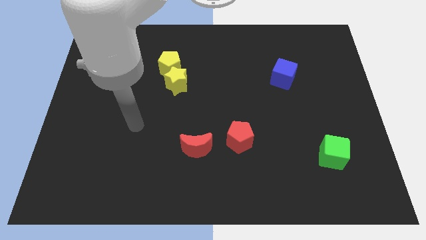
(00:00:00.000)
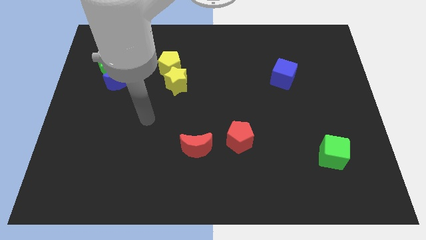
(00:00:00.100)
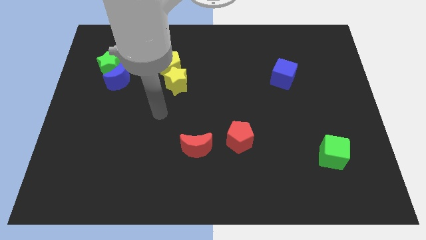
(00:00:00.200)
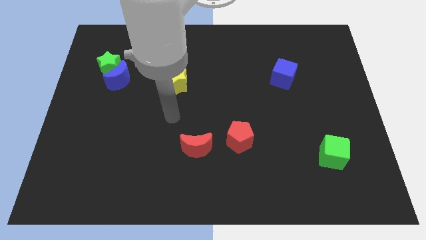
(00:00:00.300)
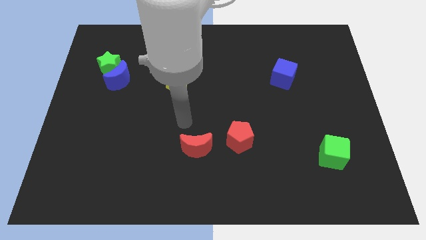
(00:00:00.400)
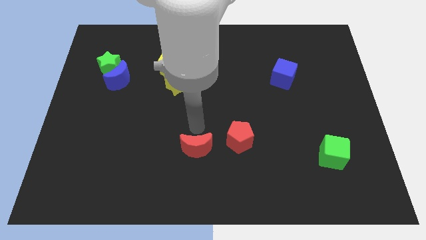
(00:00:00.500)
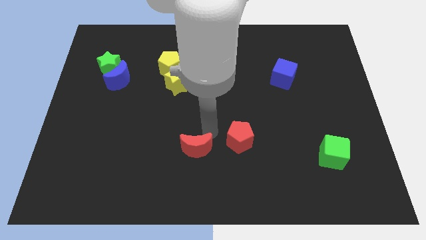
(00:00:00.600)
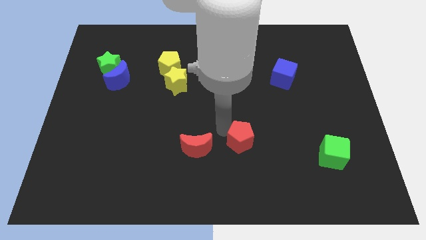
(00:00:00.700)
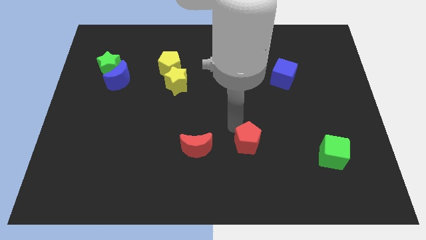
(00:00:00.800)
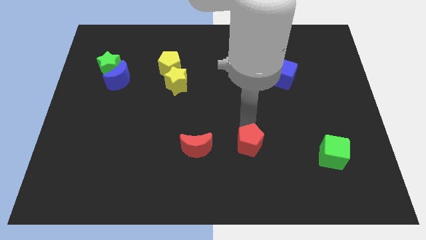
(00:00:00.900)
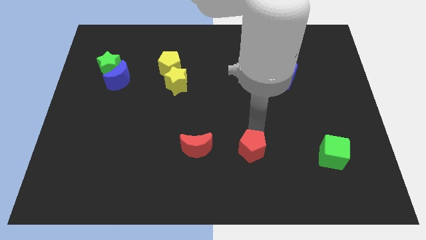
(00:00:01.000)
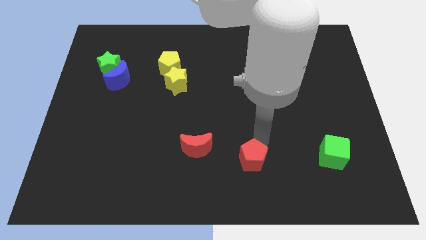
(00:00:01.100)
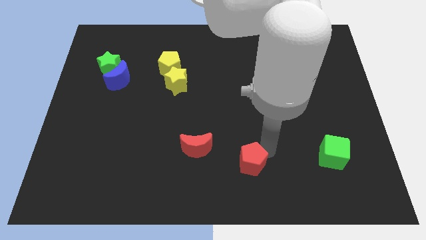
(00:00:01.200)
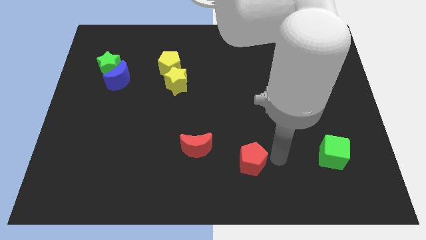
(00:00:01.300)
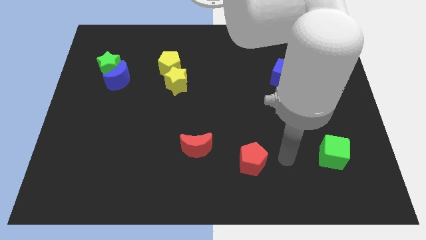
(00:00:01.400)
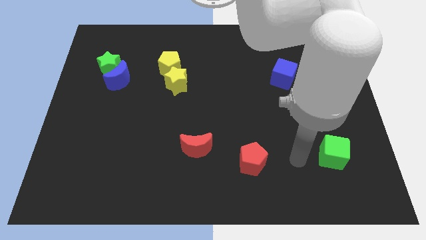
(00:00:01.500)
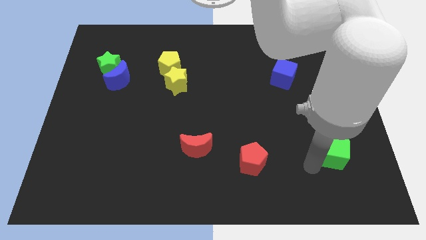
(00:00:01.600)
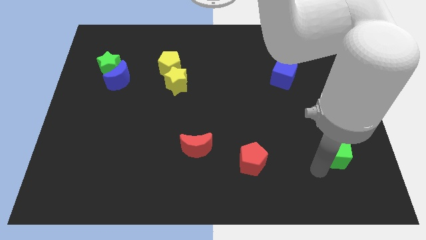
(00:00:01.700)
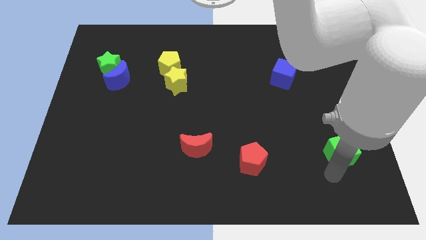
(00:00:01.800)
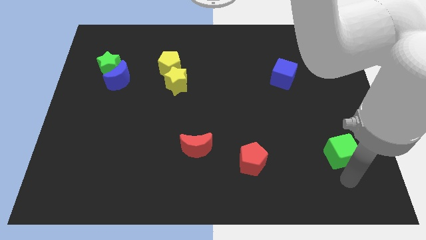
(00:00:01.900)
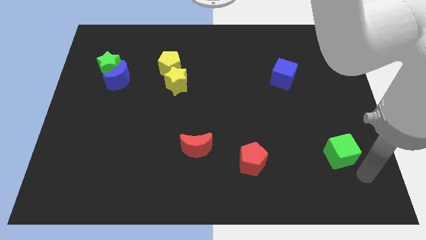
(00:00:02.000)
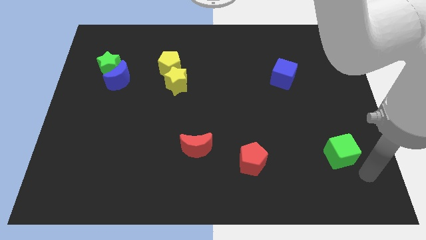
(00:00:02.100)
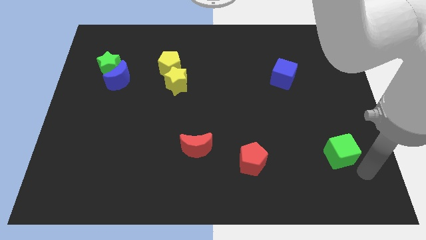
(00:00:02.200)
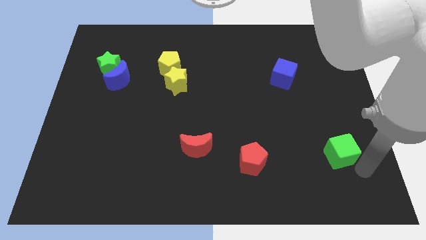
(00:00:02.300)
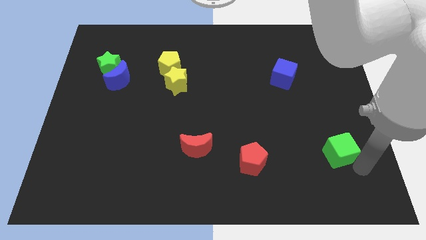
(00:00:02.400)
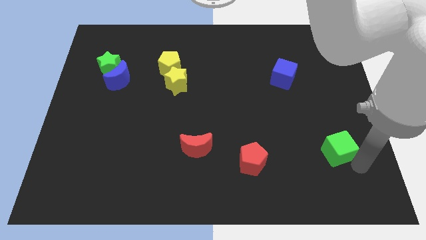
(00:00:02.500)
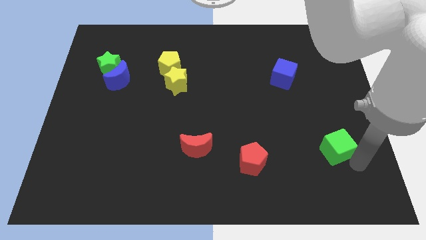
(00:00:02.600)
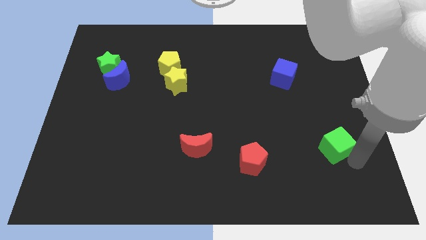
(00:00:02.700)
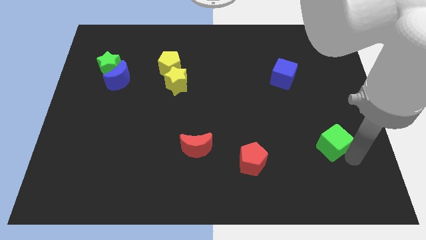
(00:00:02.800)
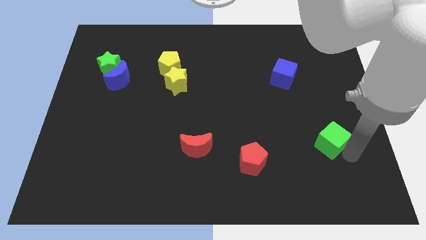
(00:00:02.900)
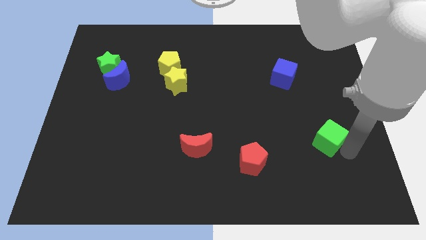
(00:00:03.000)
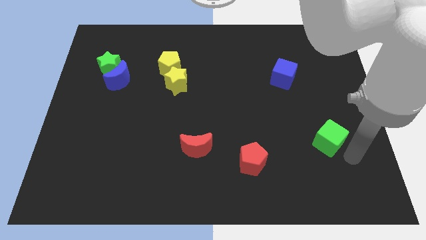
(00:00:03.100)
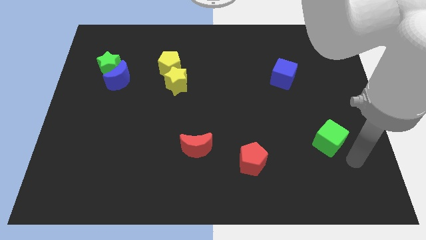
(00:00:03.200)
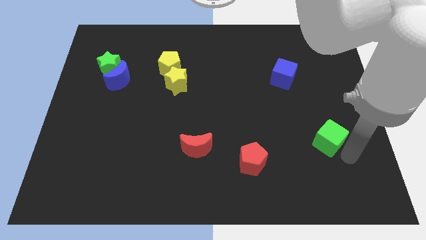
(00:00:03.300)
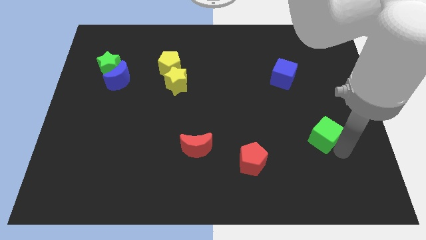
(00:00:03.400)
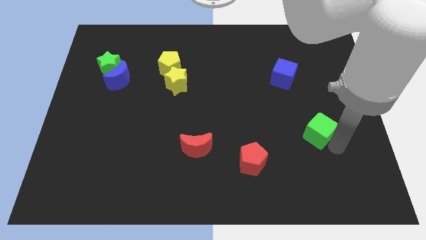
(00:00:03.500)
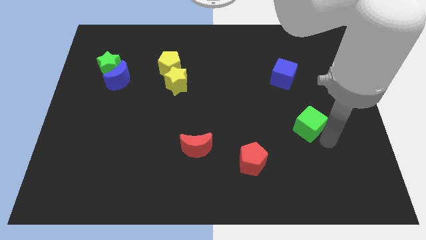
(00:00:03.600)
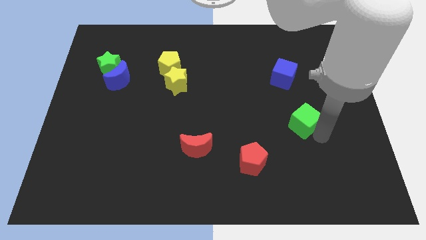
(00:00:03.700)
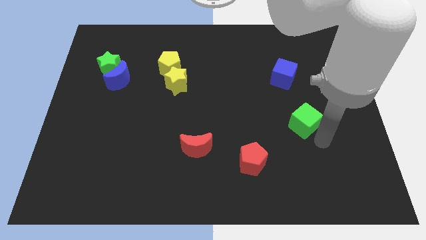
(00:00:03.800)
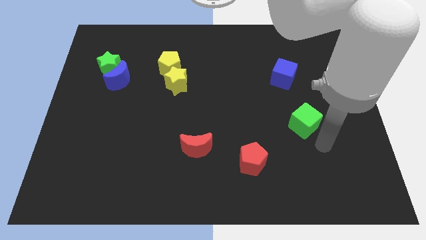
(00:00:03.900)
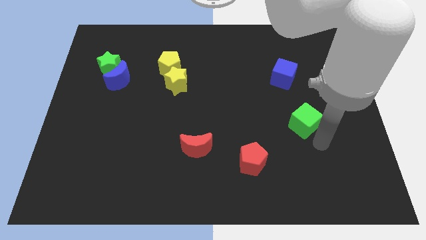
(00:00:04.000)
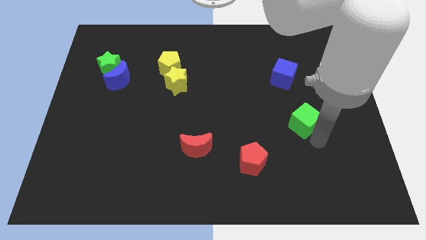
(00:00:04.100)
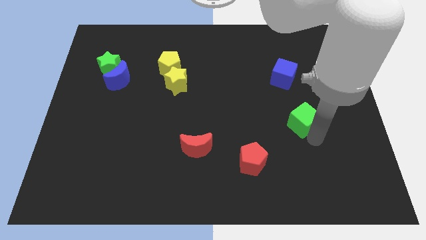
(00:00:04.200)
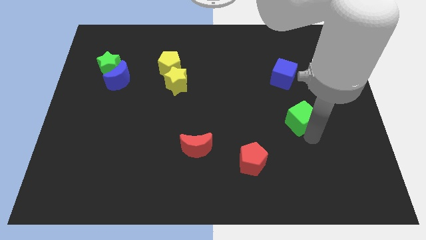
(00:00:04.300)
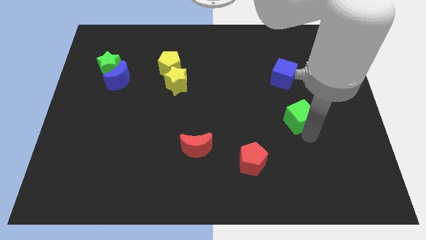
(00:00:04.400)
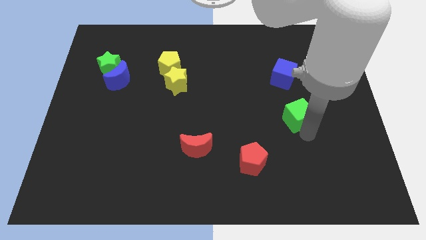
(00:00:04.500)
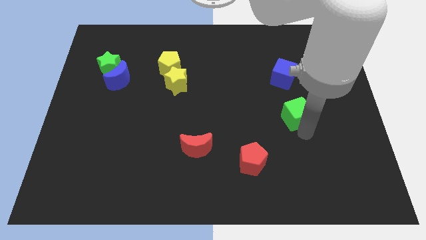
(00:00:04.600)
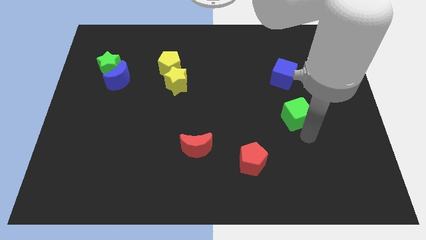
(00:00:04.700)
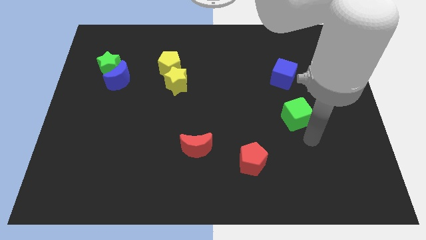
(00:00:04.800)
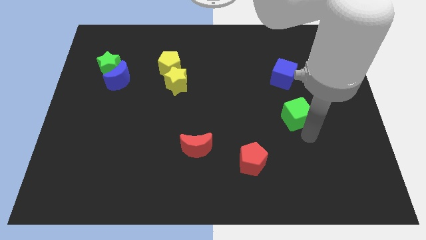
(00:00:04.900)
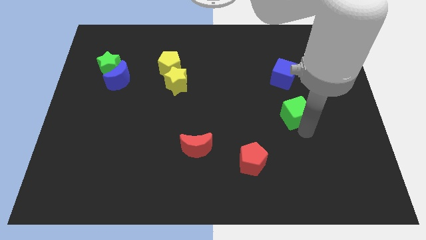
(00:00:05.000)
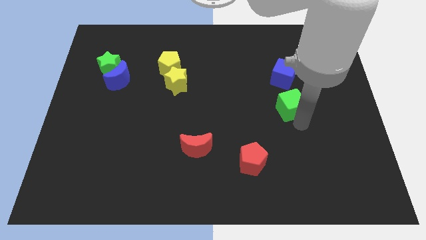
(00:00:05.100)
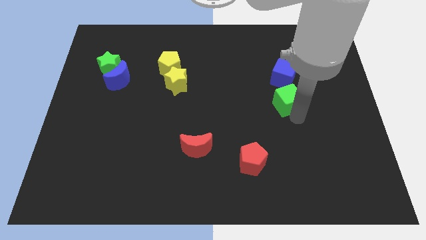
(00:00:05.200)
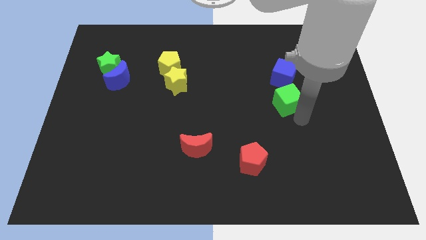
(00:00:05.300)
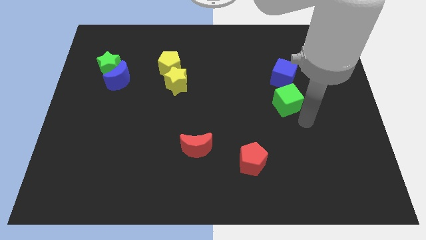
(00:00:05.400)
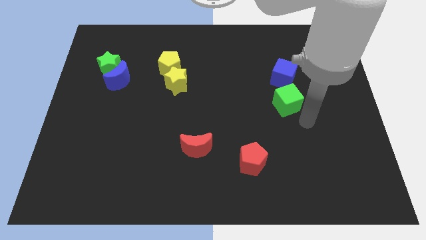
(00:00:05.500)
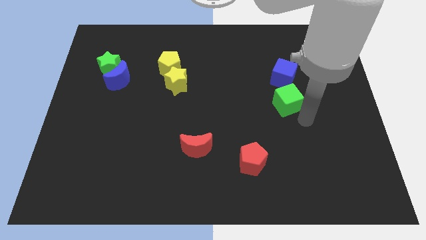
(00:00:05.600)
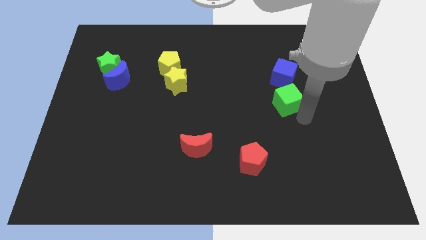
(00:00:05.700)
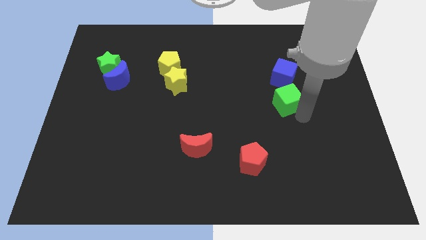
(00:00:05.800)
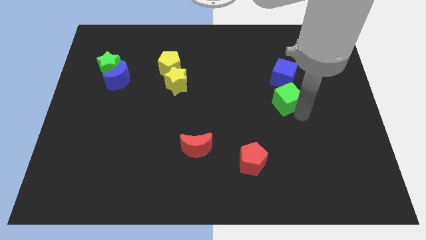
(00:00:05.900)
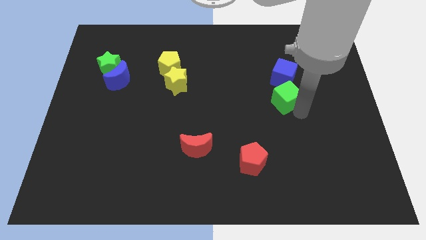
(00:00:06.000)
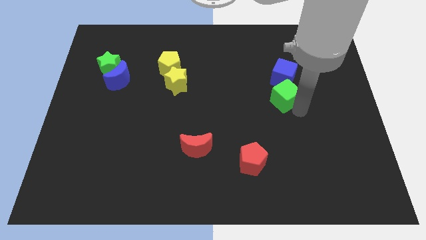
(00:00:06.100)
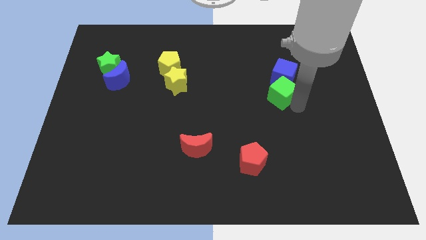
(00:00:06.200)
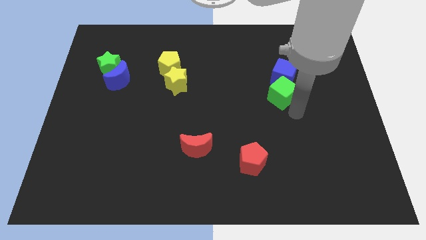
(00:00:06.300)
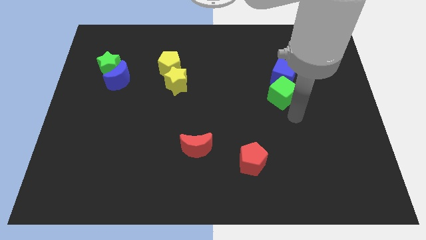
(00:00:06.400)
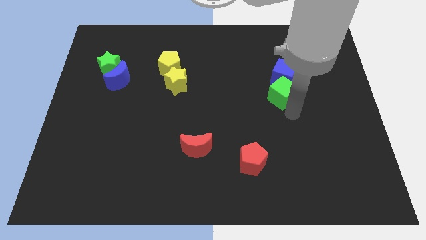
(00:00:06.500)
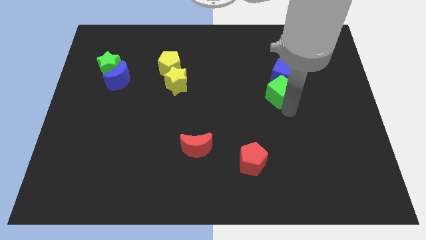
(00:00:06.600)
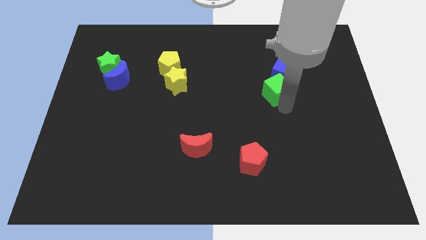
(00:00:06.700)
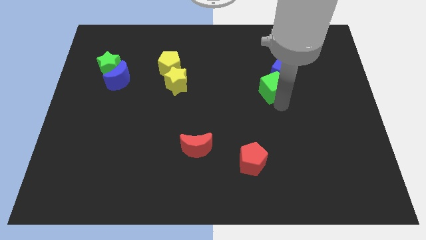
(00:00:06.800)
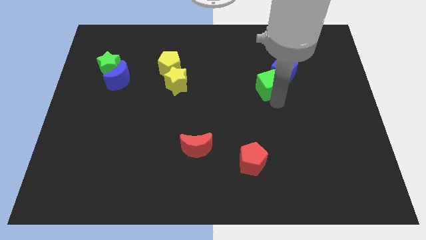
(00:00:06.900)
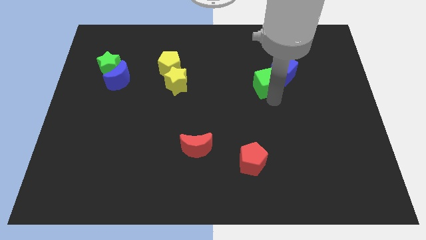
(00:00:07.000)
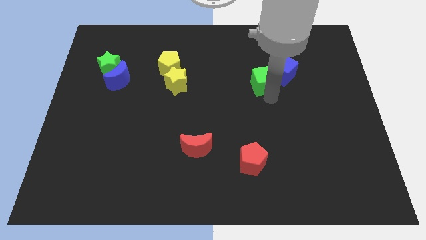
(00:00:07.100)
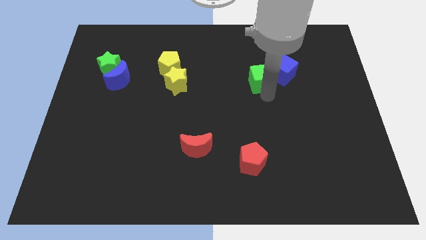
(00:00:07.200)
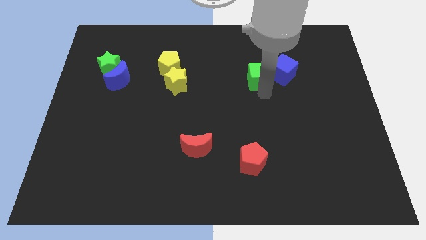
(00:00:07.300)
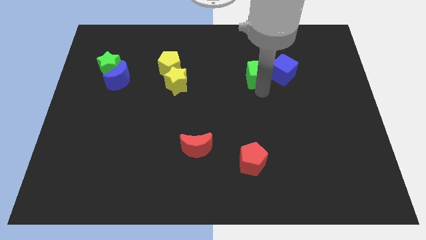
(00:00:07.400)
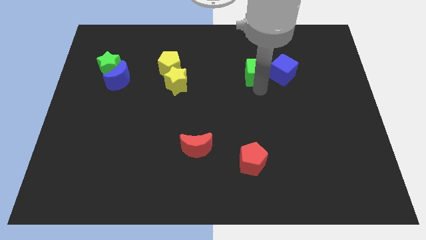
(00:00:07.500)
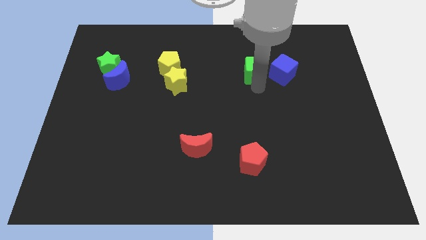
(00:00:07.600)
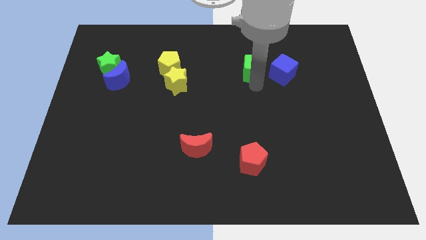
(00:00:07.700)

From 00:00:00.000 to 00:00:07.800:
push the green cube to the top left of the blue cube
